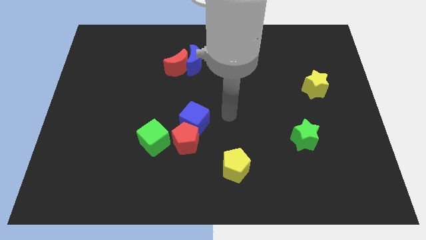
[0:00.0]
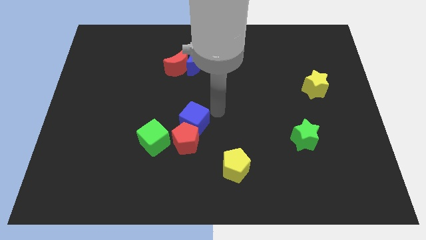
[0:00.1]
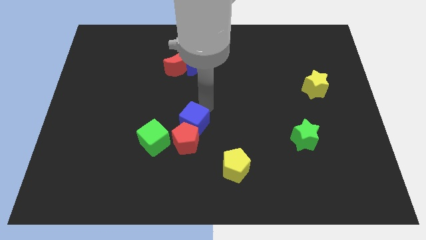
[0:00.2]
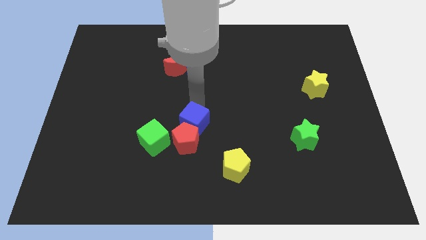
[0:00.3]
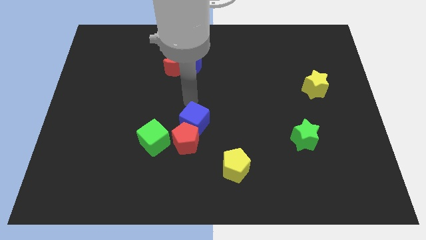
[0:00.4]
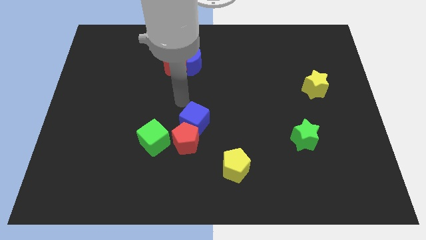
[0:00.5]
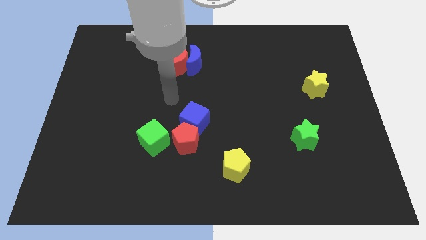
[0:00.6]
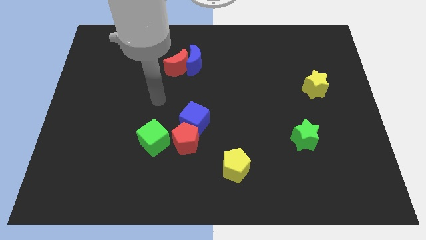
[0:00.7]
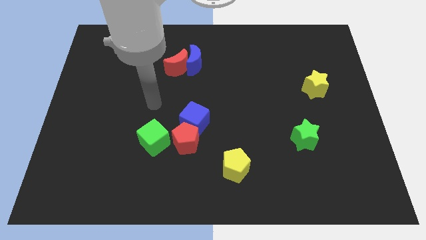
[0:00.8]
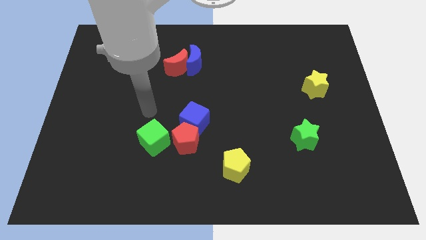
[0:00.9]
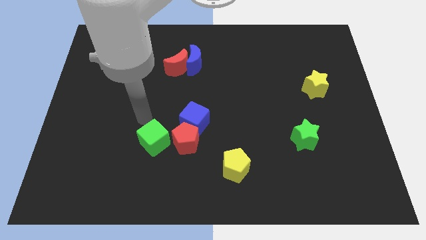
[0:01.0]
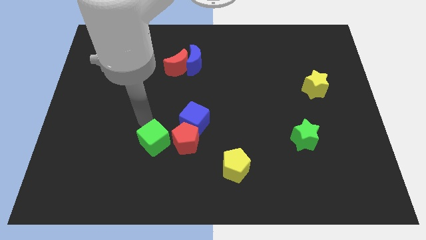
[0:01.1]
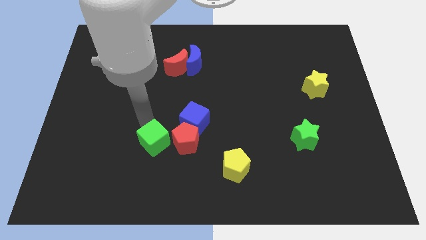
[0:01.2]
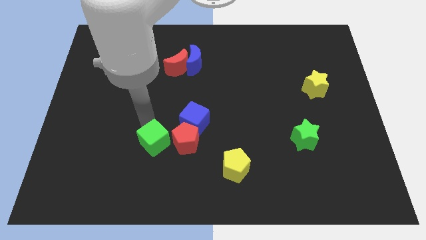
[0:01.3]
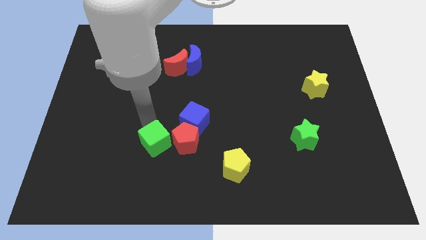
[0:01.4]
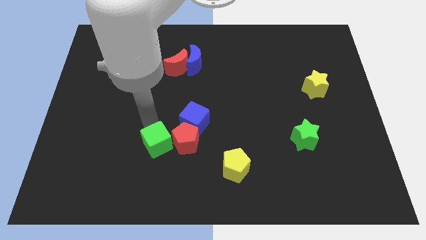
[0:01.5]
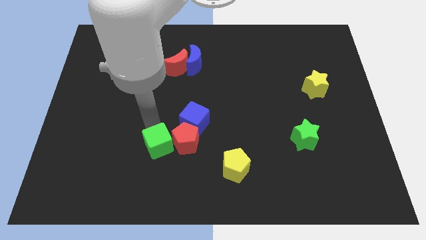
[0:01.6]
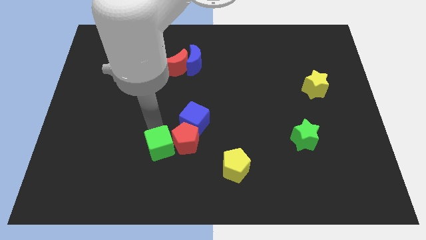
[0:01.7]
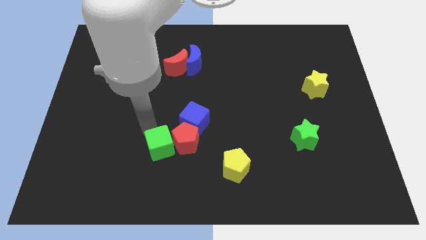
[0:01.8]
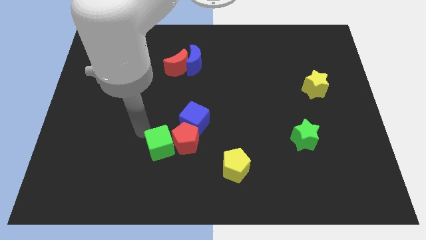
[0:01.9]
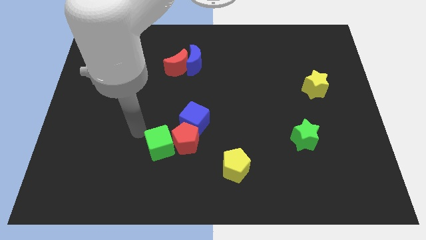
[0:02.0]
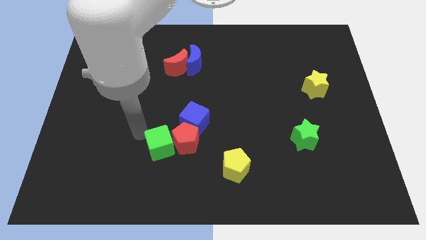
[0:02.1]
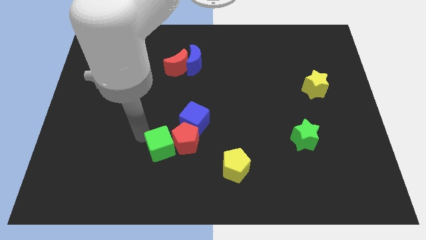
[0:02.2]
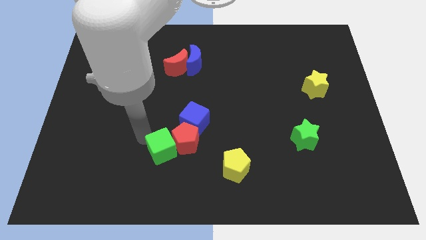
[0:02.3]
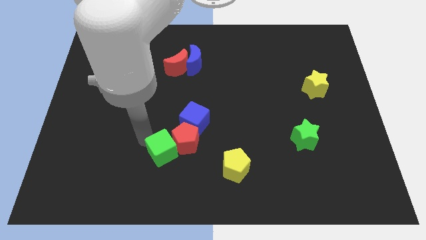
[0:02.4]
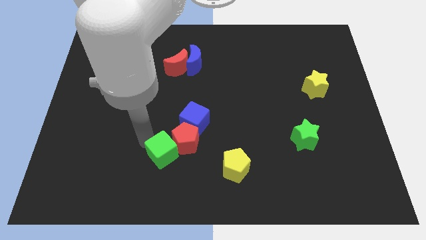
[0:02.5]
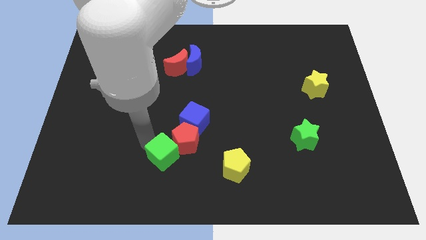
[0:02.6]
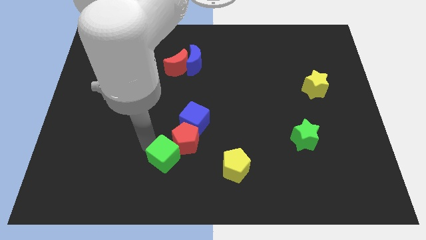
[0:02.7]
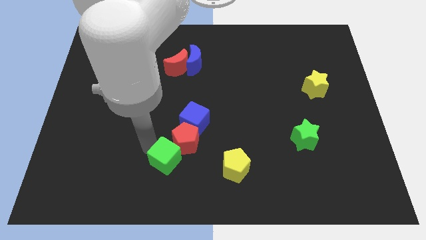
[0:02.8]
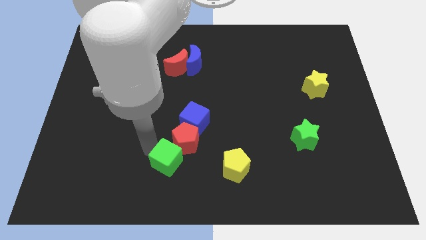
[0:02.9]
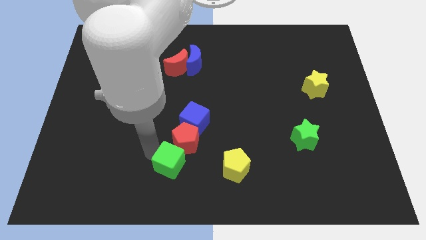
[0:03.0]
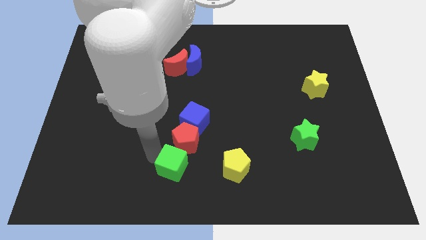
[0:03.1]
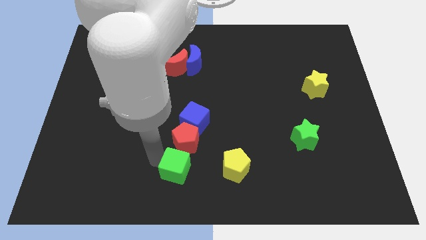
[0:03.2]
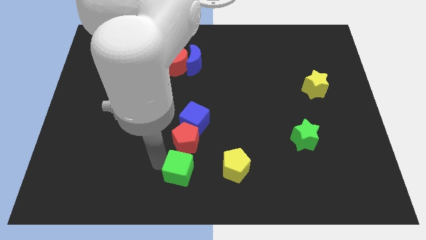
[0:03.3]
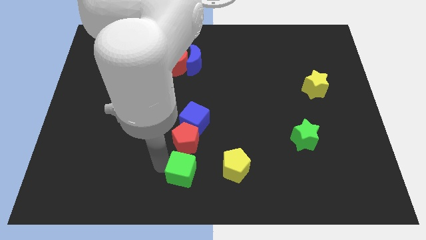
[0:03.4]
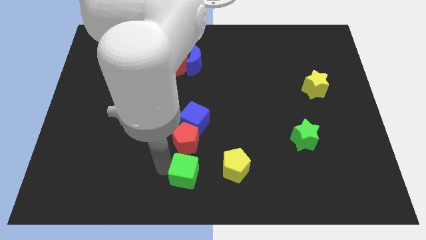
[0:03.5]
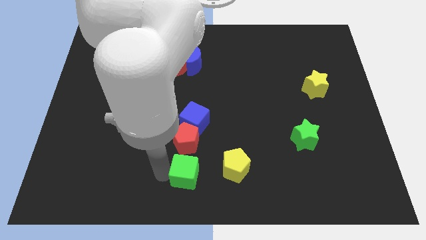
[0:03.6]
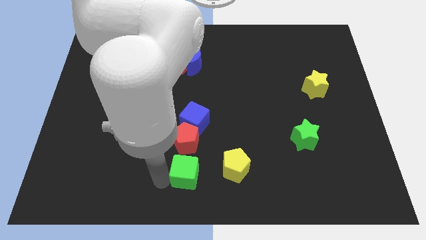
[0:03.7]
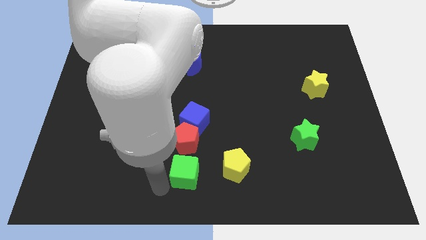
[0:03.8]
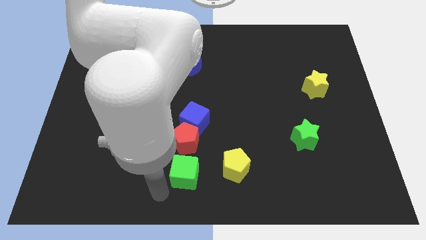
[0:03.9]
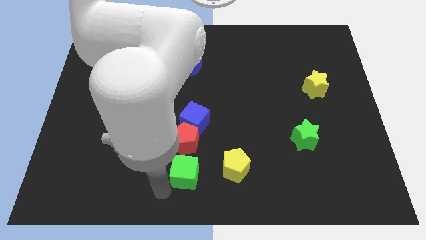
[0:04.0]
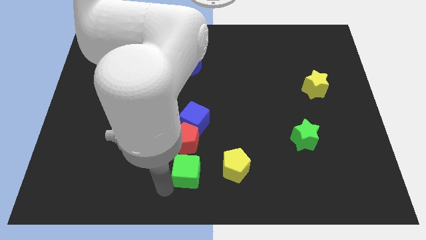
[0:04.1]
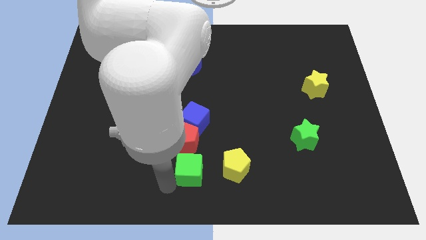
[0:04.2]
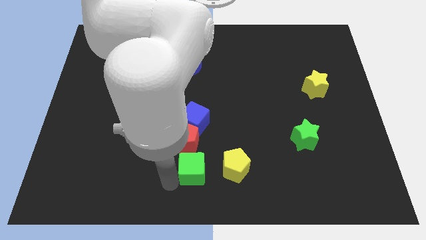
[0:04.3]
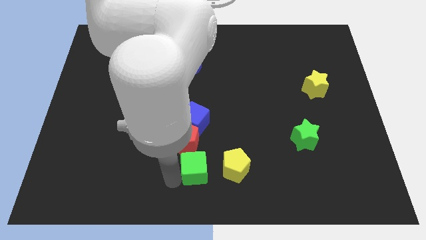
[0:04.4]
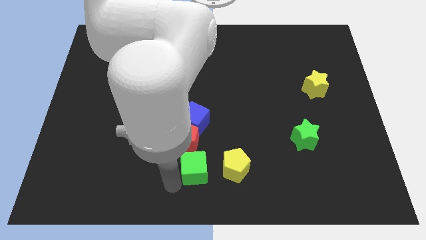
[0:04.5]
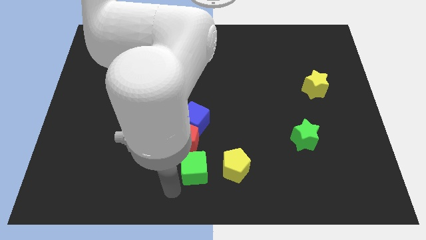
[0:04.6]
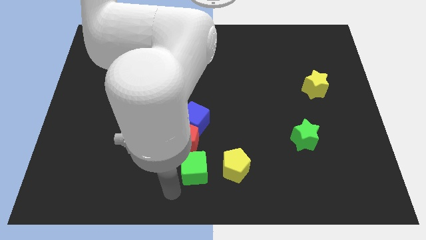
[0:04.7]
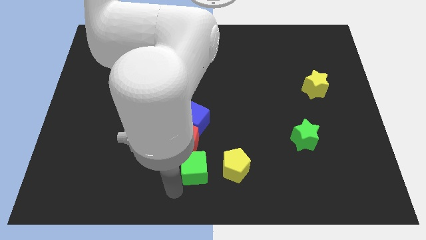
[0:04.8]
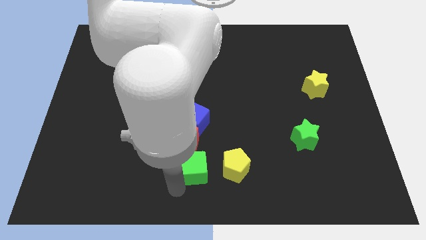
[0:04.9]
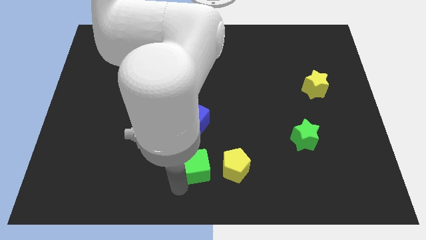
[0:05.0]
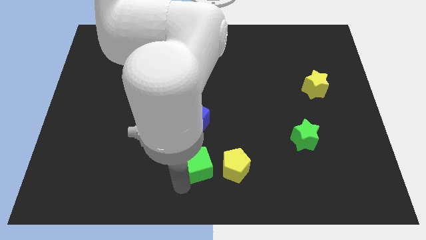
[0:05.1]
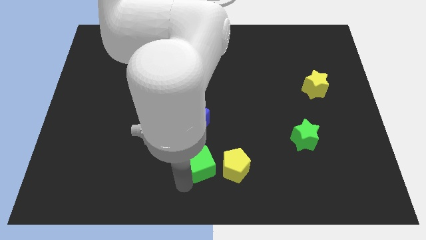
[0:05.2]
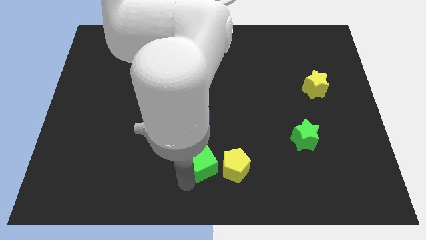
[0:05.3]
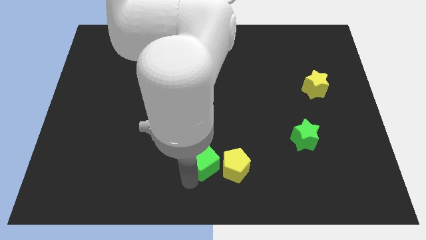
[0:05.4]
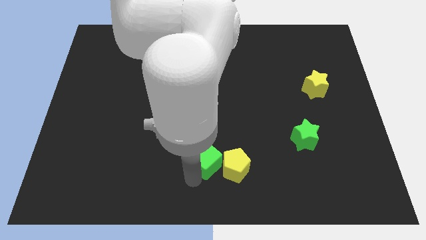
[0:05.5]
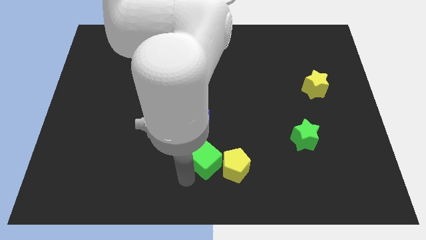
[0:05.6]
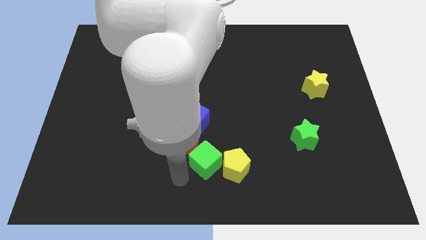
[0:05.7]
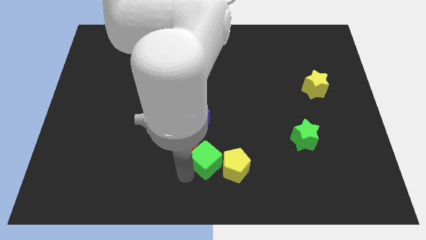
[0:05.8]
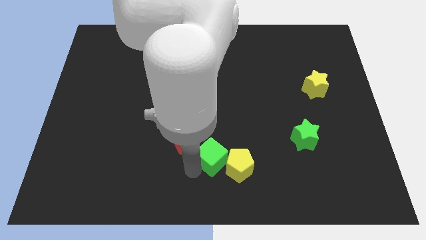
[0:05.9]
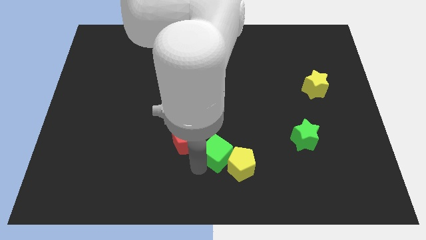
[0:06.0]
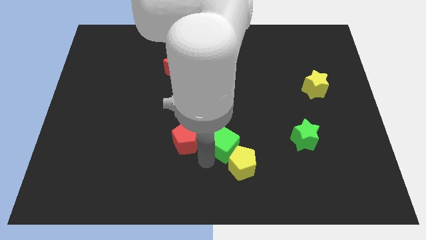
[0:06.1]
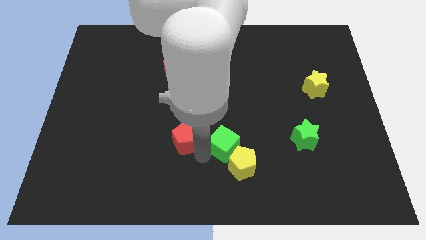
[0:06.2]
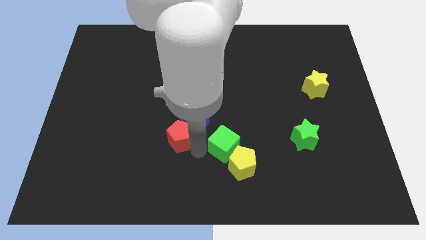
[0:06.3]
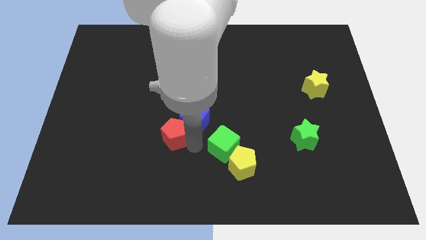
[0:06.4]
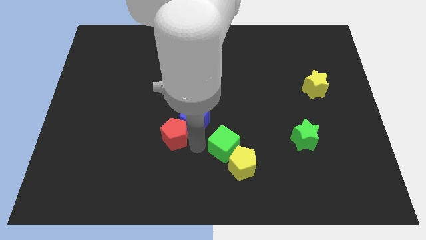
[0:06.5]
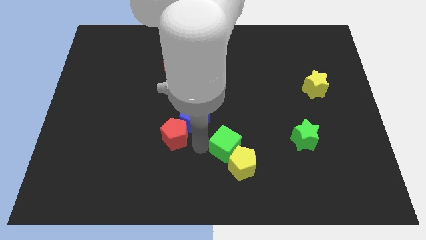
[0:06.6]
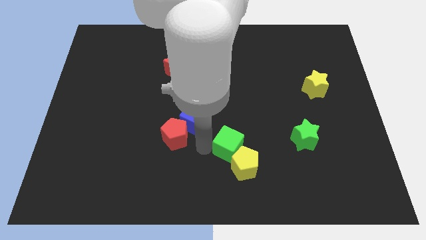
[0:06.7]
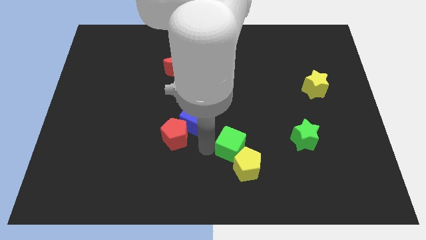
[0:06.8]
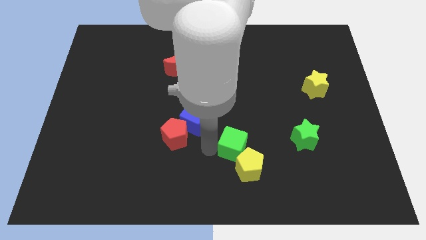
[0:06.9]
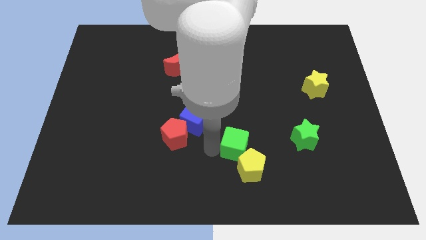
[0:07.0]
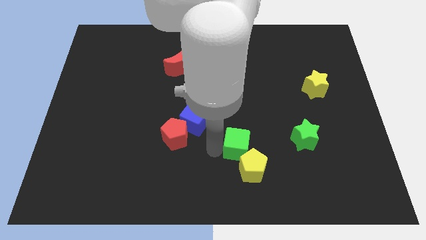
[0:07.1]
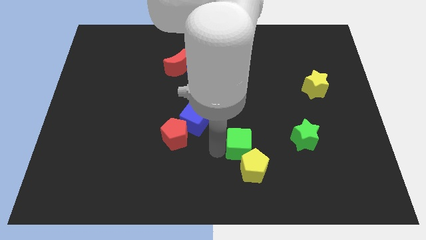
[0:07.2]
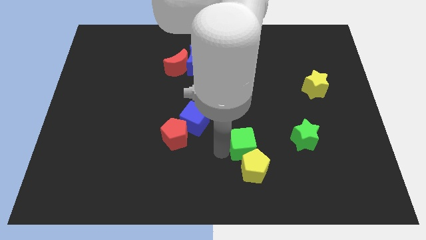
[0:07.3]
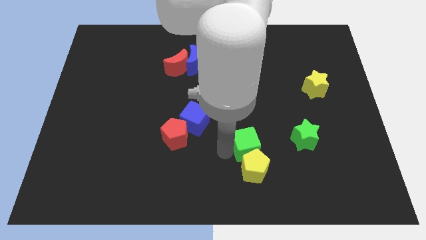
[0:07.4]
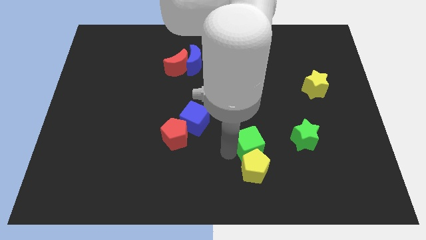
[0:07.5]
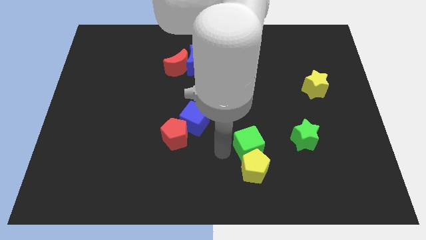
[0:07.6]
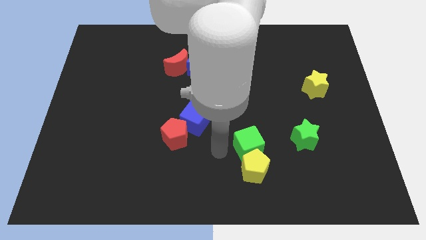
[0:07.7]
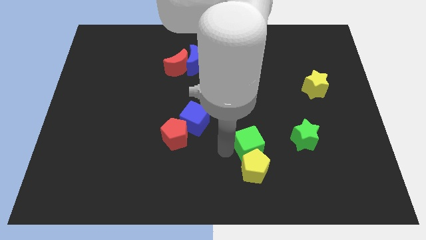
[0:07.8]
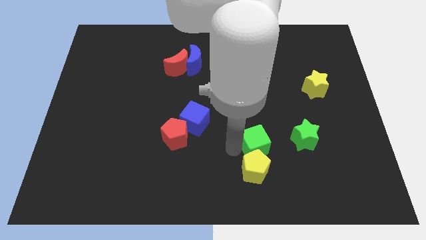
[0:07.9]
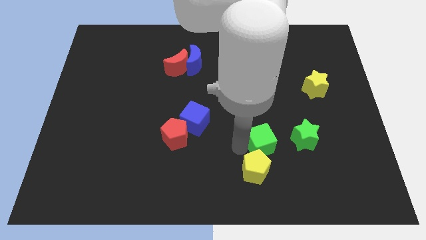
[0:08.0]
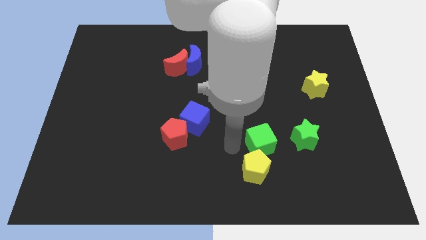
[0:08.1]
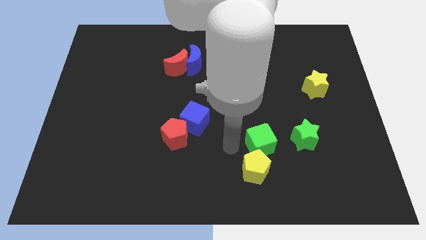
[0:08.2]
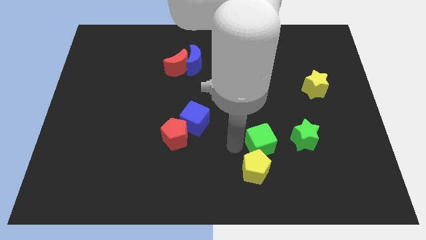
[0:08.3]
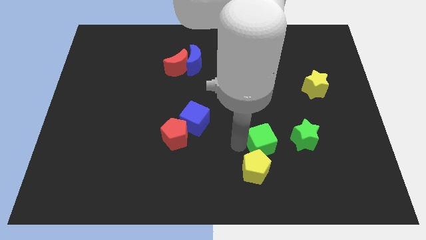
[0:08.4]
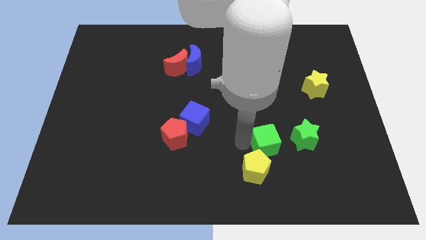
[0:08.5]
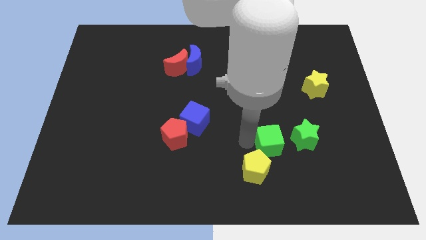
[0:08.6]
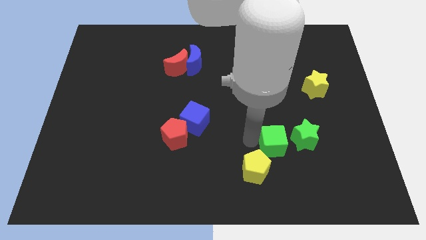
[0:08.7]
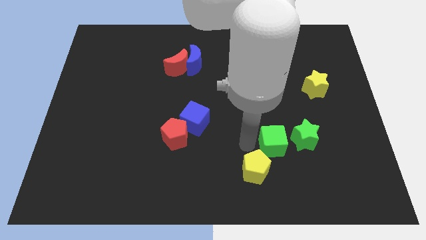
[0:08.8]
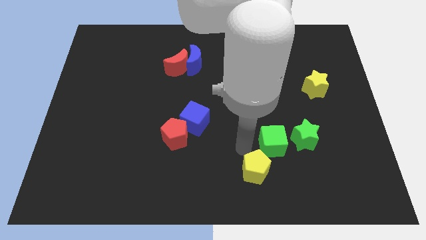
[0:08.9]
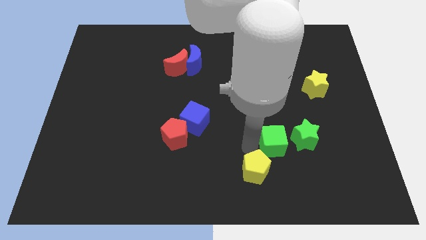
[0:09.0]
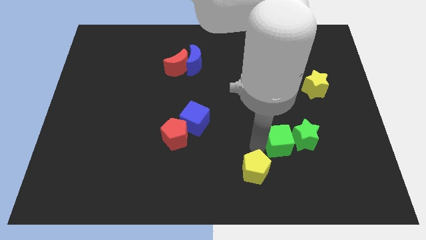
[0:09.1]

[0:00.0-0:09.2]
put the green cube next to the green star
